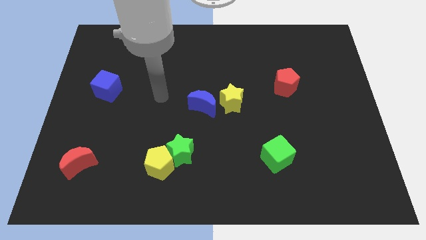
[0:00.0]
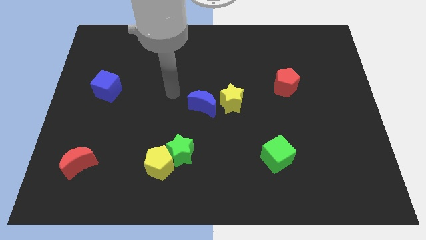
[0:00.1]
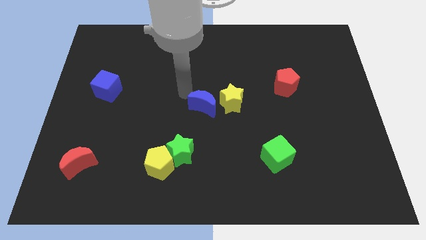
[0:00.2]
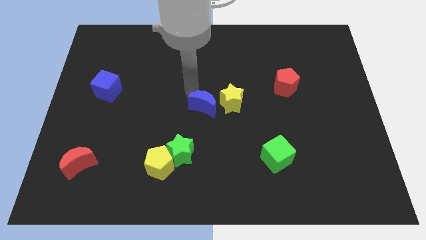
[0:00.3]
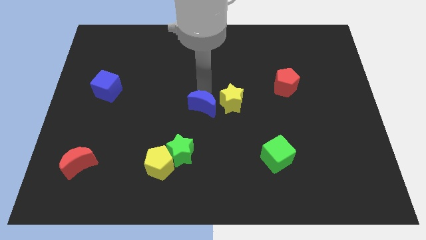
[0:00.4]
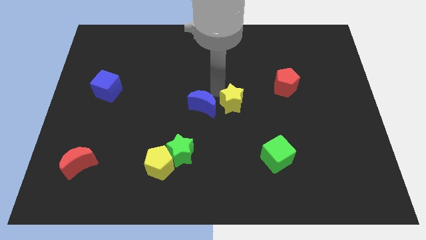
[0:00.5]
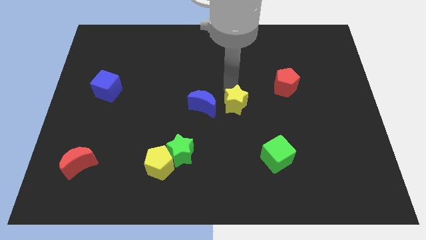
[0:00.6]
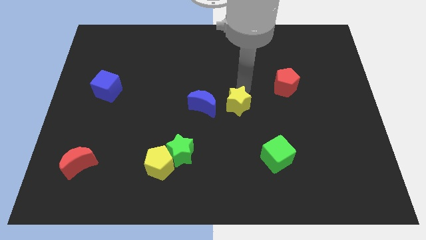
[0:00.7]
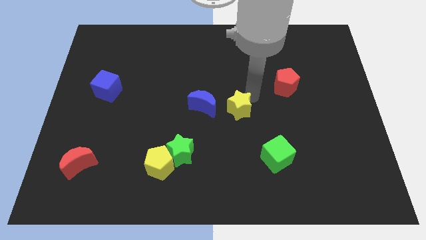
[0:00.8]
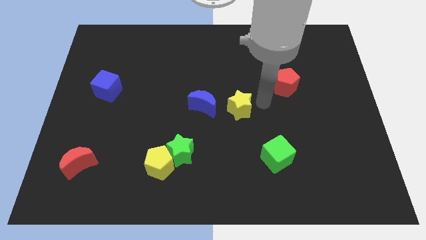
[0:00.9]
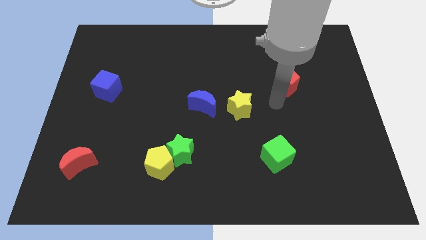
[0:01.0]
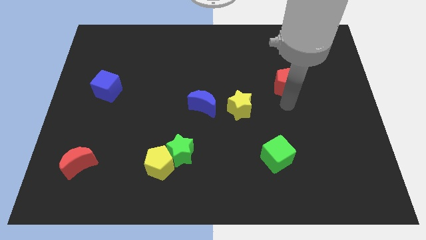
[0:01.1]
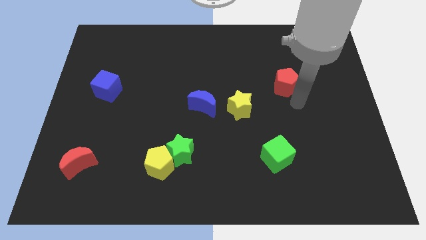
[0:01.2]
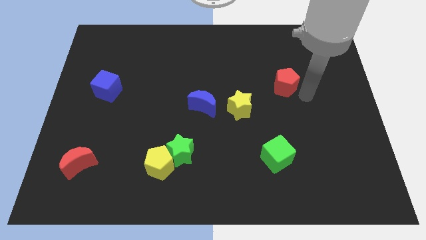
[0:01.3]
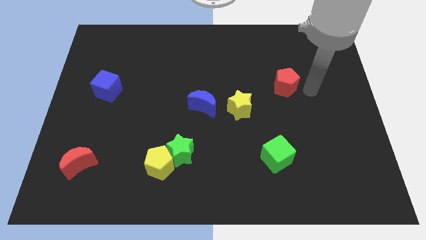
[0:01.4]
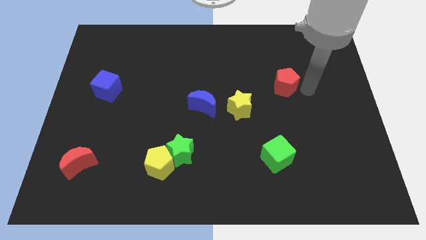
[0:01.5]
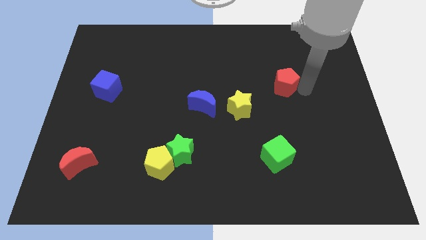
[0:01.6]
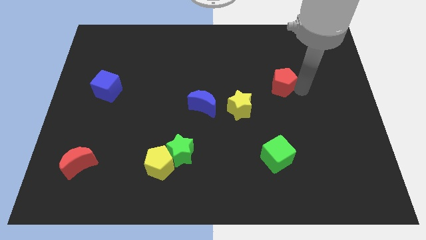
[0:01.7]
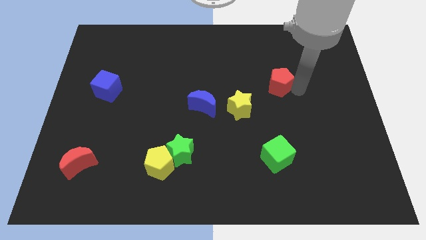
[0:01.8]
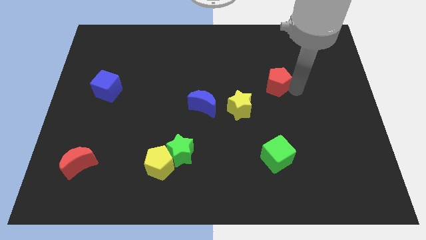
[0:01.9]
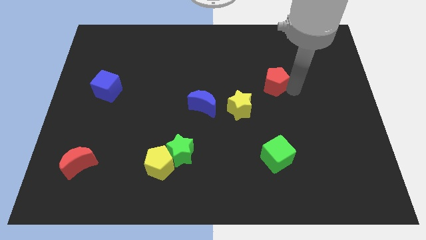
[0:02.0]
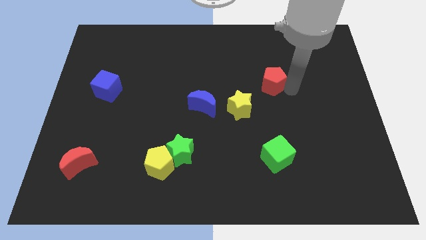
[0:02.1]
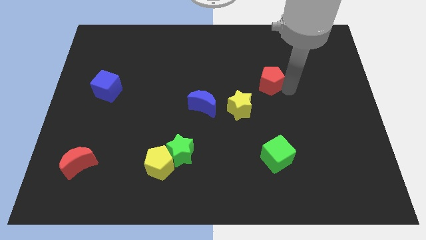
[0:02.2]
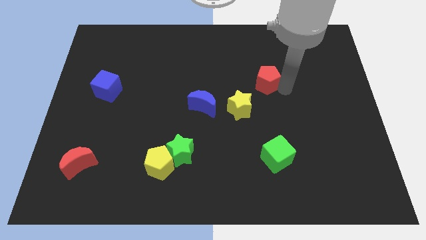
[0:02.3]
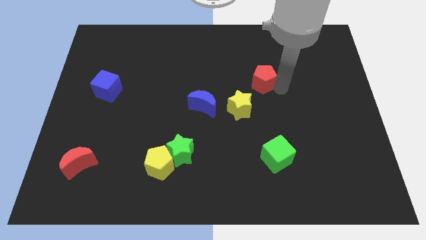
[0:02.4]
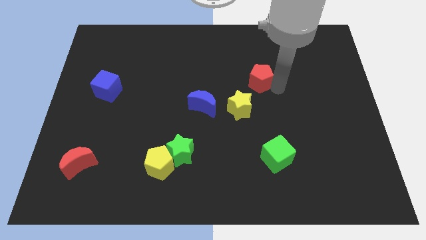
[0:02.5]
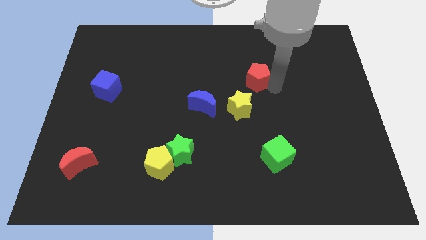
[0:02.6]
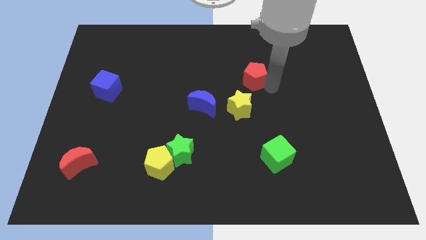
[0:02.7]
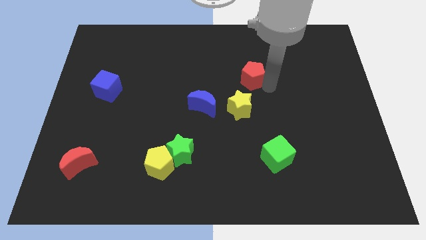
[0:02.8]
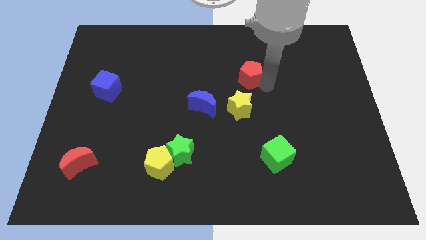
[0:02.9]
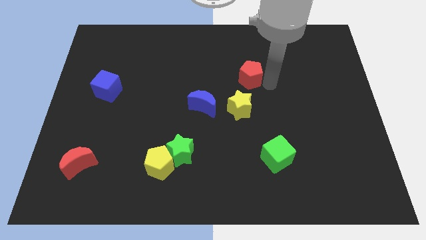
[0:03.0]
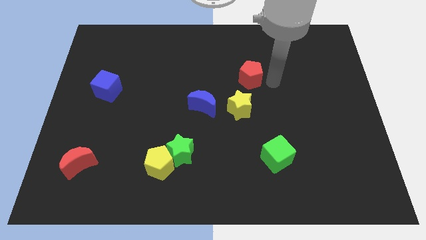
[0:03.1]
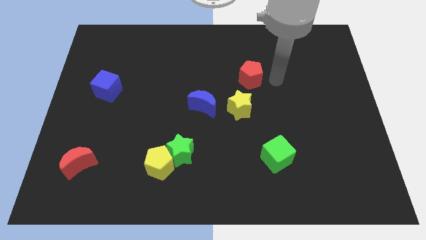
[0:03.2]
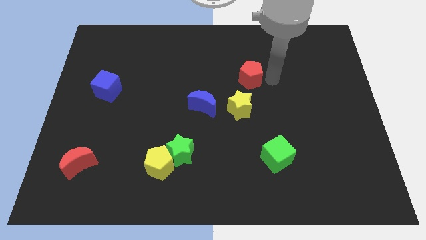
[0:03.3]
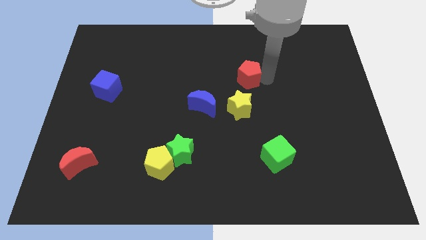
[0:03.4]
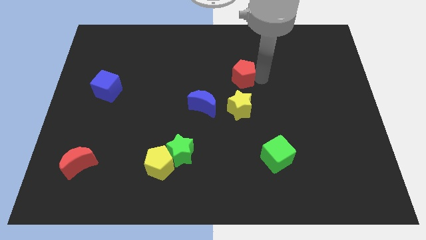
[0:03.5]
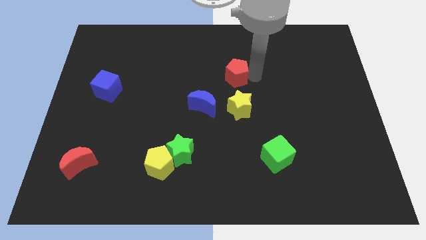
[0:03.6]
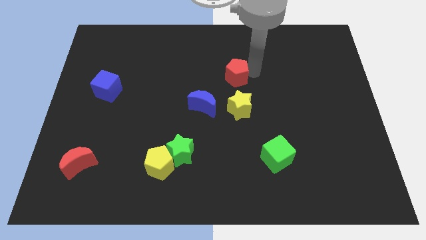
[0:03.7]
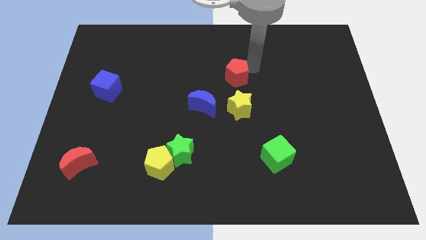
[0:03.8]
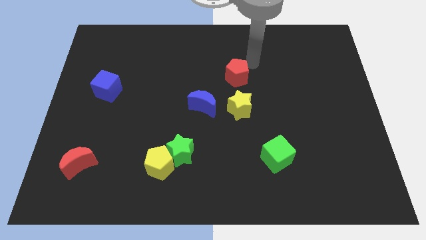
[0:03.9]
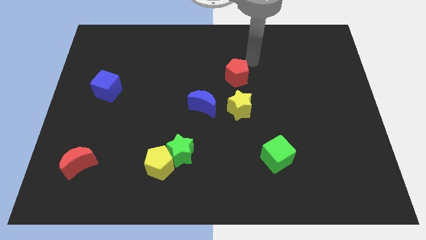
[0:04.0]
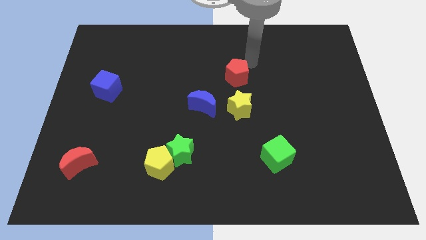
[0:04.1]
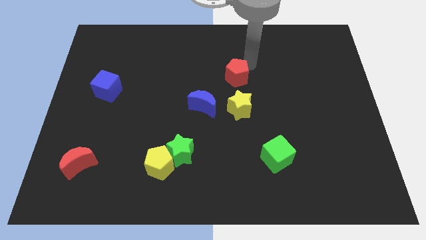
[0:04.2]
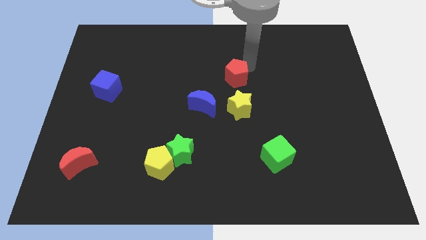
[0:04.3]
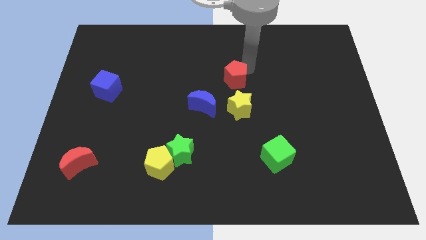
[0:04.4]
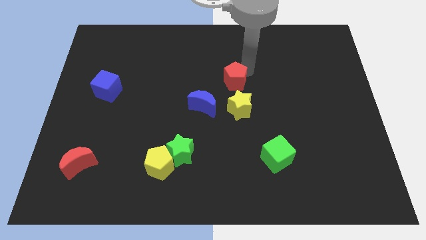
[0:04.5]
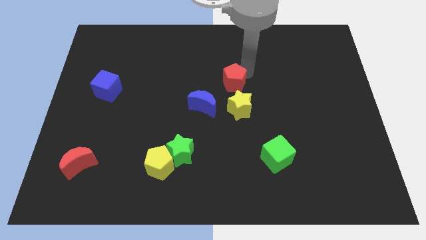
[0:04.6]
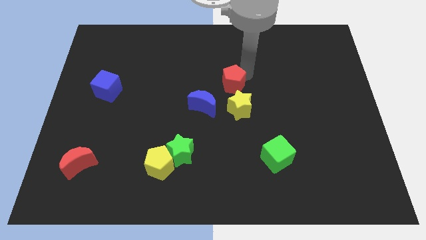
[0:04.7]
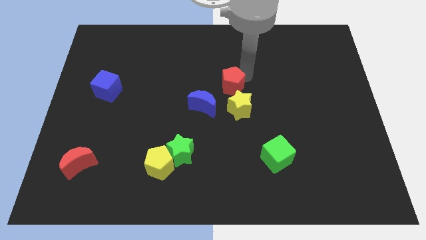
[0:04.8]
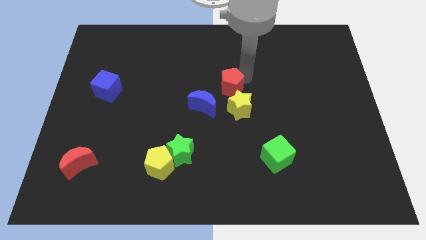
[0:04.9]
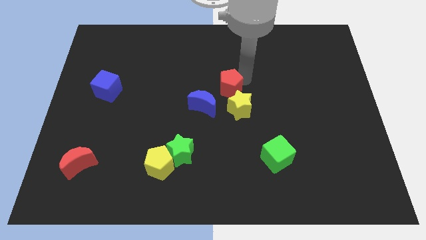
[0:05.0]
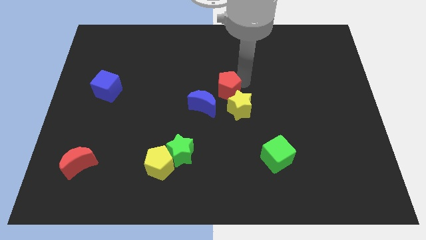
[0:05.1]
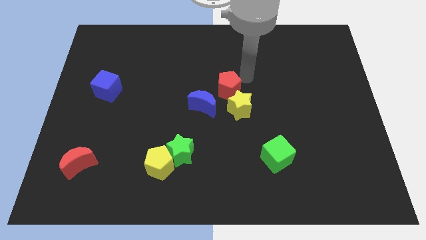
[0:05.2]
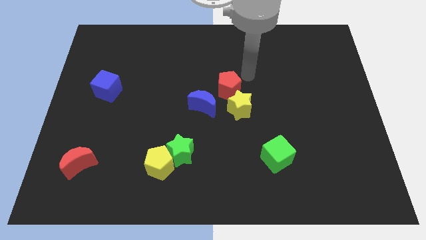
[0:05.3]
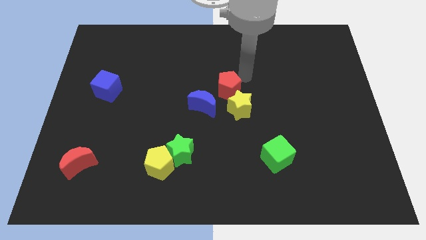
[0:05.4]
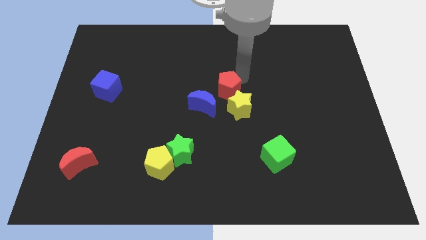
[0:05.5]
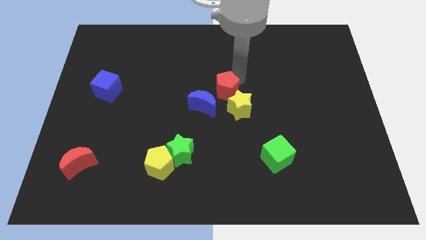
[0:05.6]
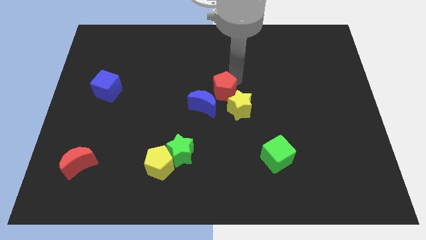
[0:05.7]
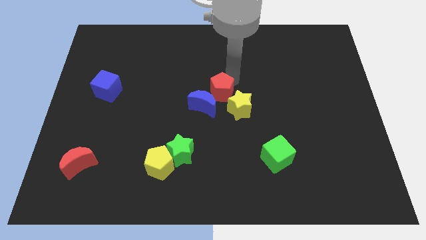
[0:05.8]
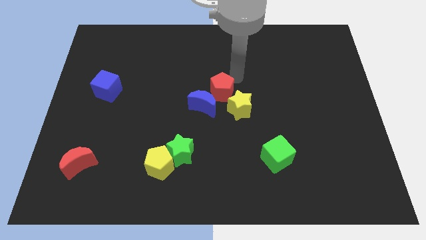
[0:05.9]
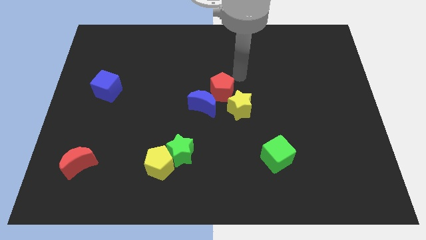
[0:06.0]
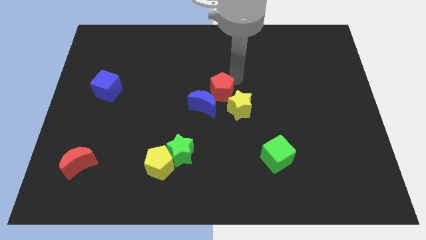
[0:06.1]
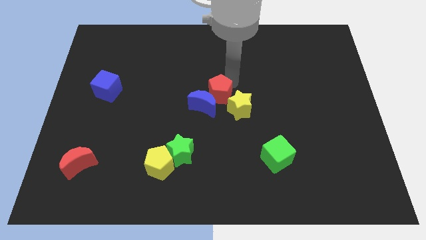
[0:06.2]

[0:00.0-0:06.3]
move the red pentagon to the blue moon

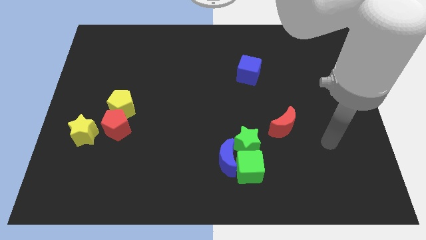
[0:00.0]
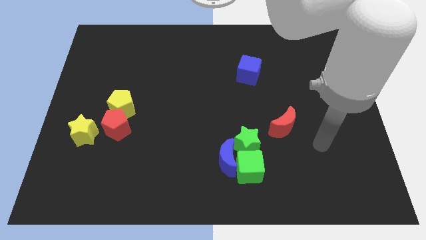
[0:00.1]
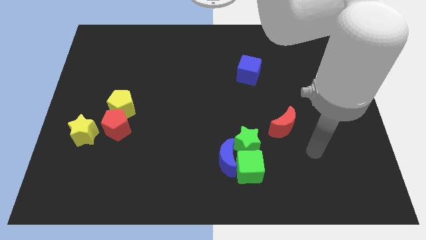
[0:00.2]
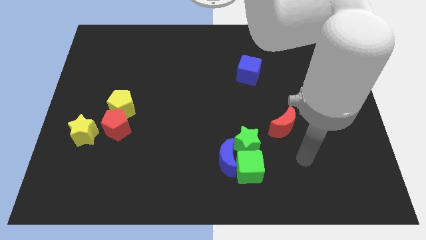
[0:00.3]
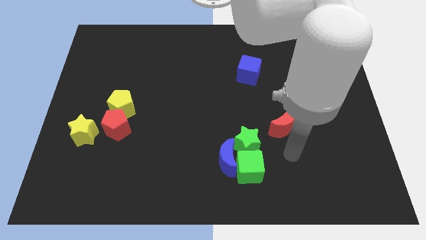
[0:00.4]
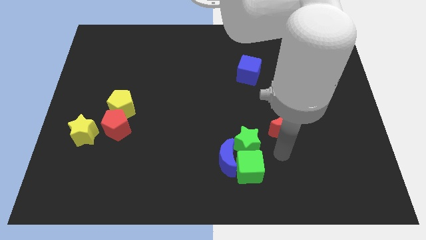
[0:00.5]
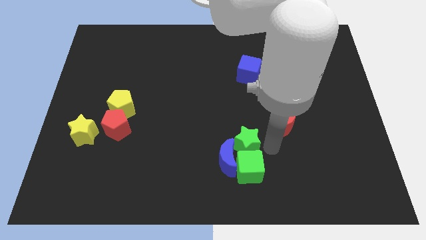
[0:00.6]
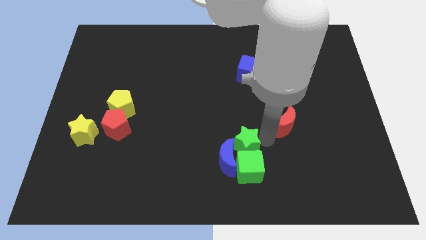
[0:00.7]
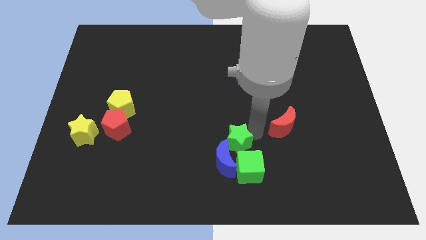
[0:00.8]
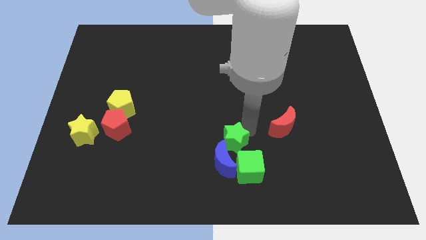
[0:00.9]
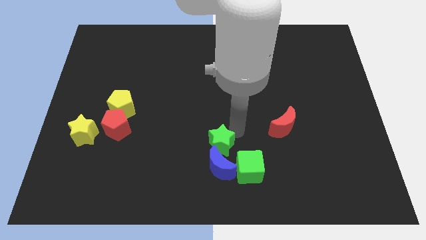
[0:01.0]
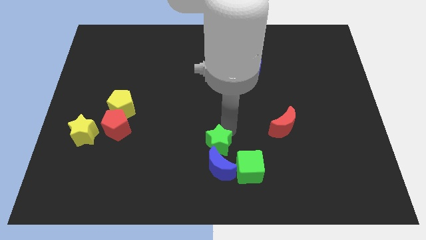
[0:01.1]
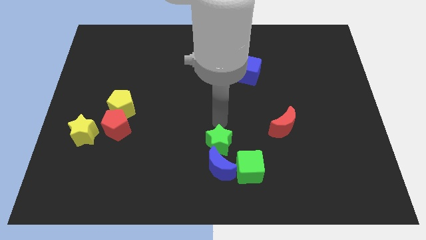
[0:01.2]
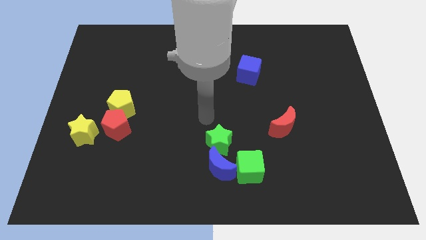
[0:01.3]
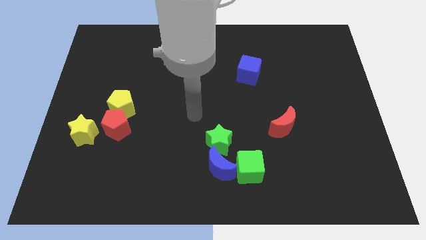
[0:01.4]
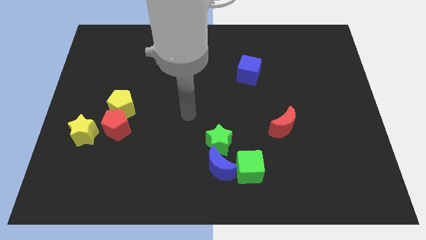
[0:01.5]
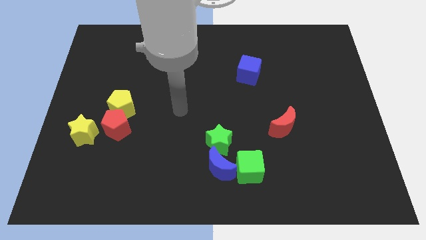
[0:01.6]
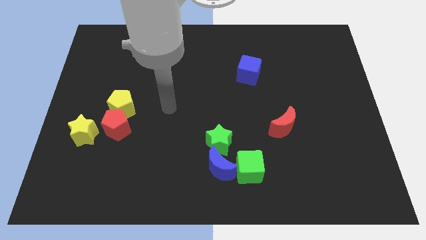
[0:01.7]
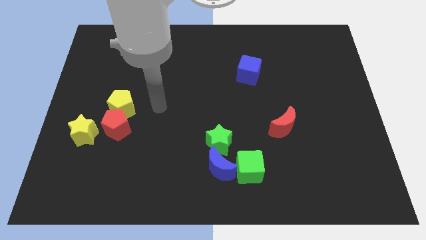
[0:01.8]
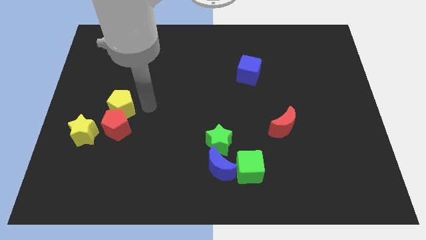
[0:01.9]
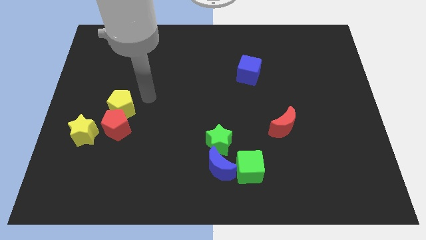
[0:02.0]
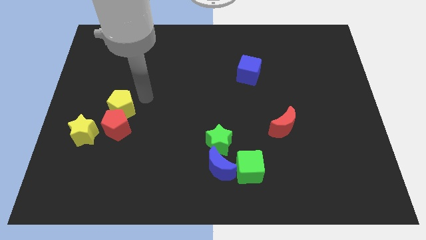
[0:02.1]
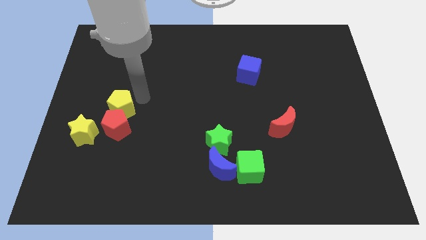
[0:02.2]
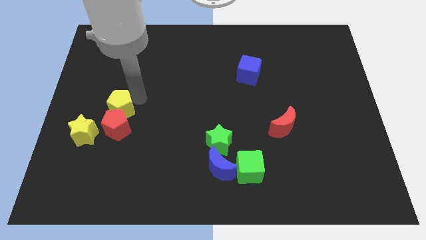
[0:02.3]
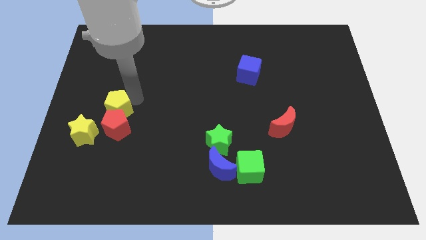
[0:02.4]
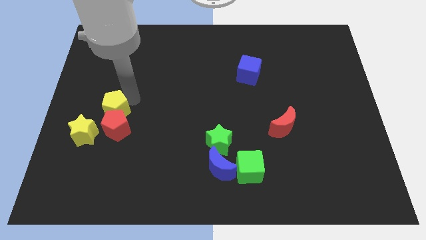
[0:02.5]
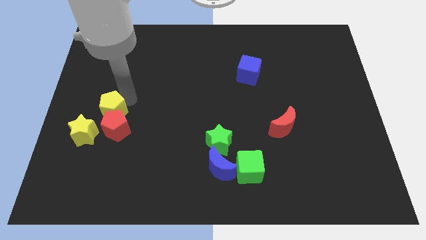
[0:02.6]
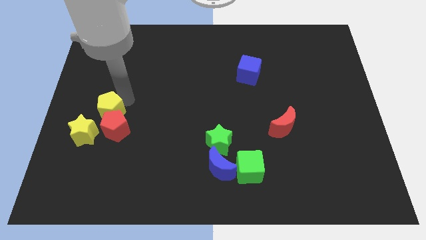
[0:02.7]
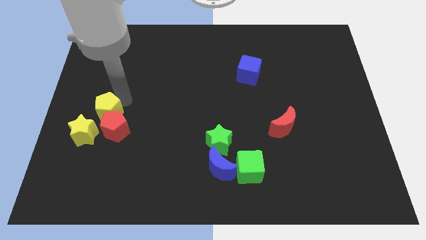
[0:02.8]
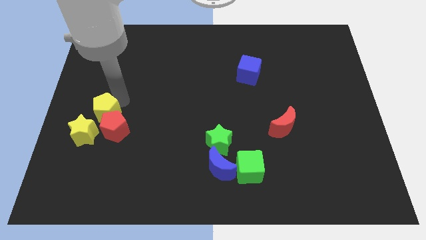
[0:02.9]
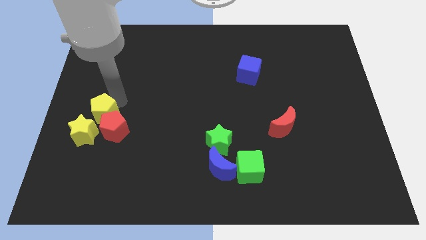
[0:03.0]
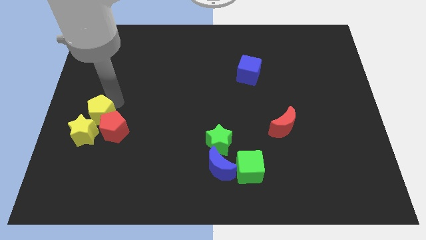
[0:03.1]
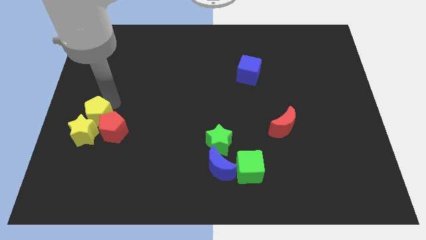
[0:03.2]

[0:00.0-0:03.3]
push the yellow pentagon next to the yellow star
